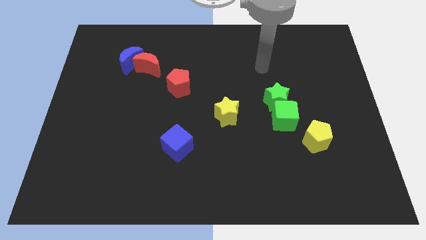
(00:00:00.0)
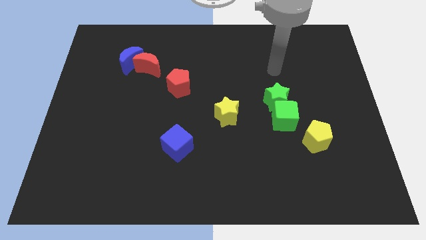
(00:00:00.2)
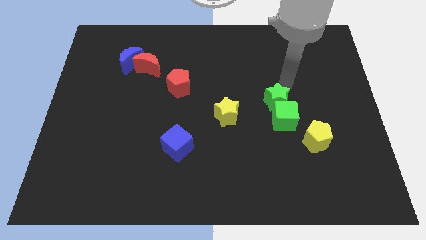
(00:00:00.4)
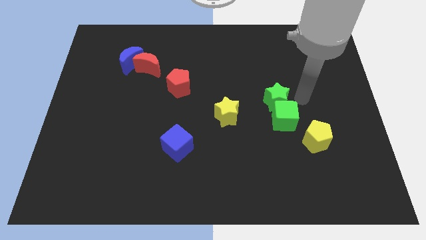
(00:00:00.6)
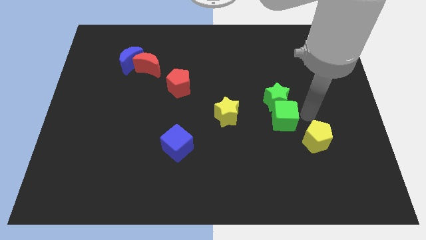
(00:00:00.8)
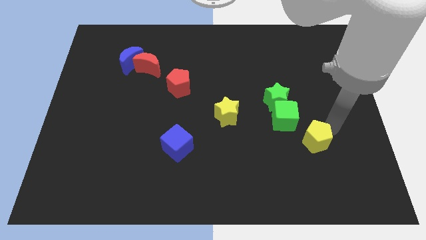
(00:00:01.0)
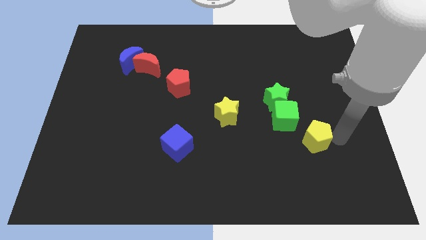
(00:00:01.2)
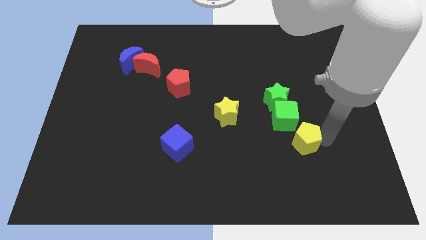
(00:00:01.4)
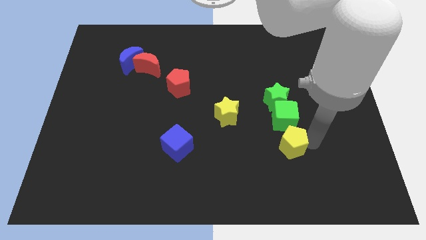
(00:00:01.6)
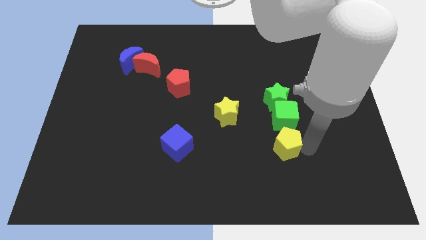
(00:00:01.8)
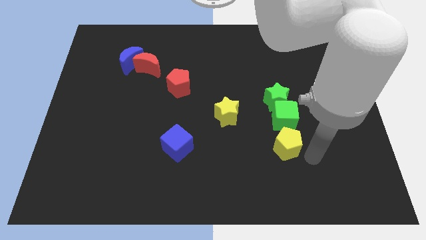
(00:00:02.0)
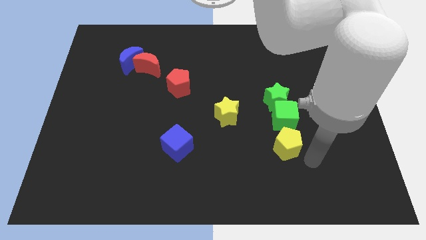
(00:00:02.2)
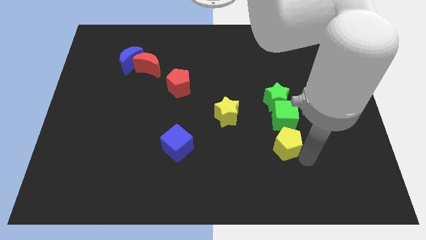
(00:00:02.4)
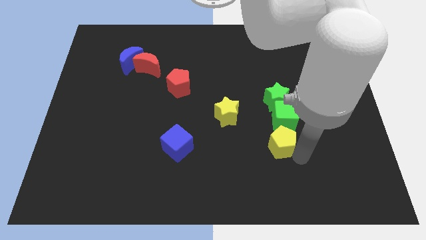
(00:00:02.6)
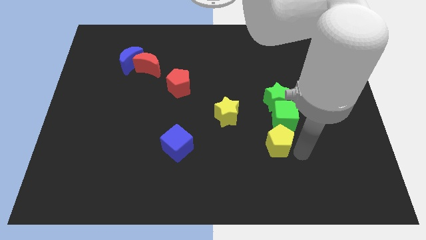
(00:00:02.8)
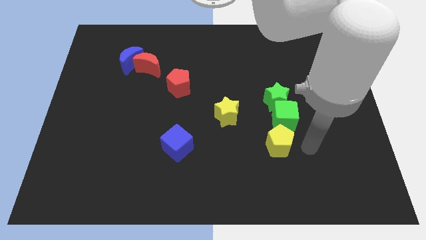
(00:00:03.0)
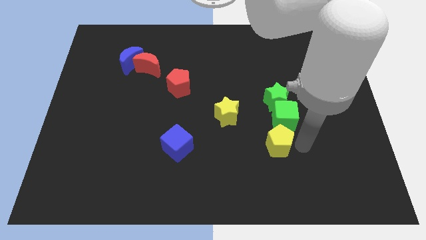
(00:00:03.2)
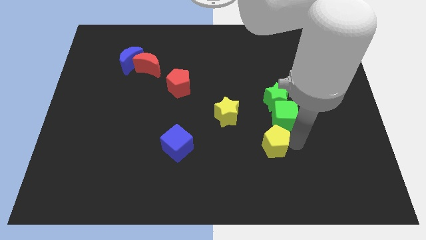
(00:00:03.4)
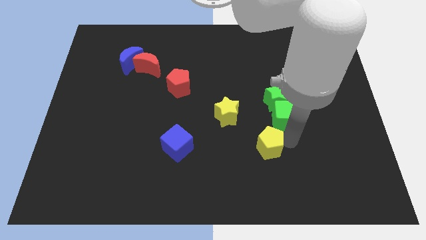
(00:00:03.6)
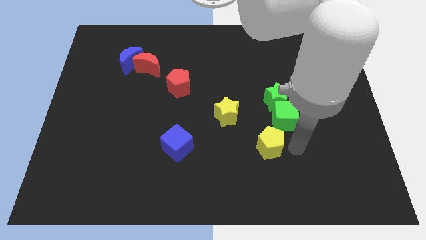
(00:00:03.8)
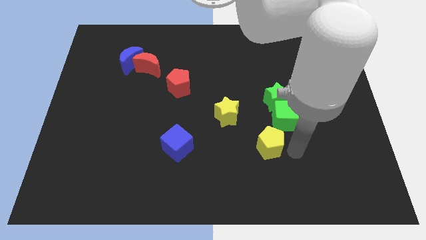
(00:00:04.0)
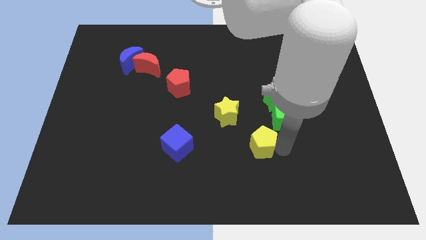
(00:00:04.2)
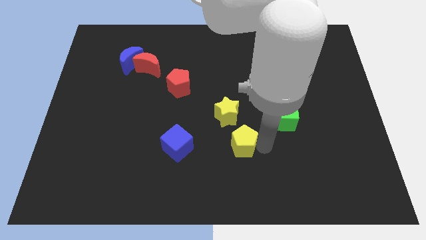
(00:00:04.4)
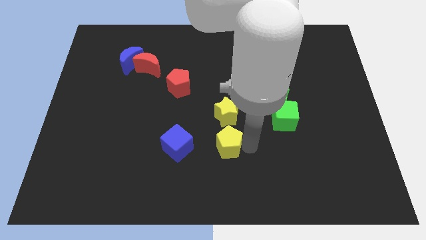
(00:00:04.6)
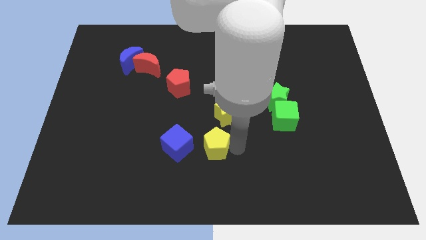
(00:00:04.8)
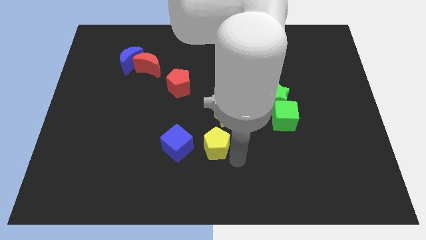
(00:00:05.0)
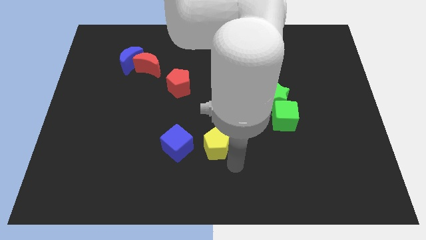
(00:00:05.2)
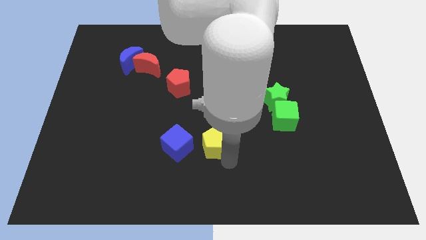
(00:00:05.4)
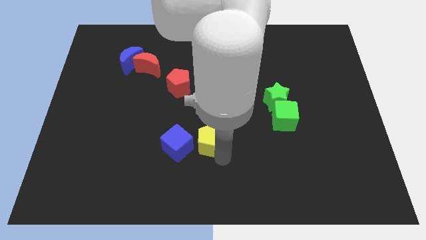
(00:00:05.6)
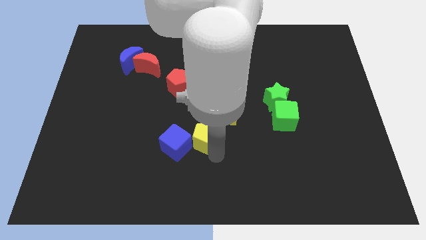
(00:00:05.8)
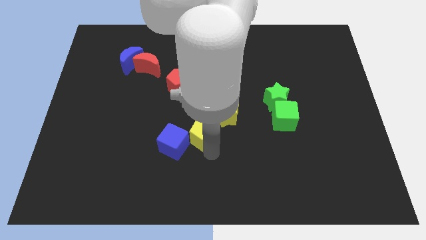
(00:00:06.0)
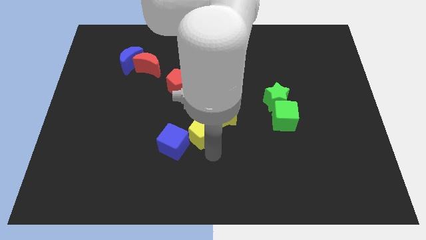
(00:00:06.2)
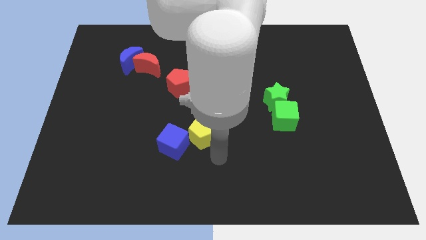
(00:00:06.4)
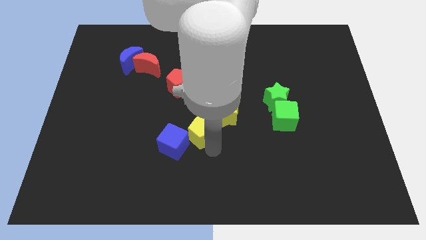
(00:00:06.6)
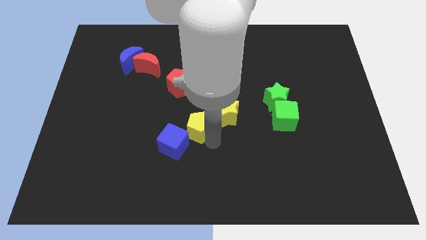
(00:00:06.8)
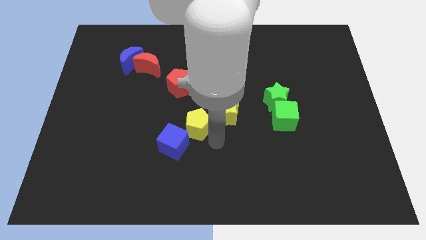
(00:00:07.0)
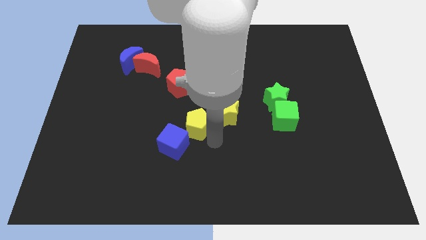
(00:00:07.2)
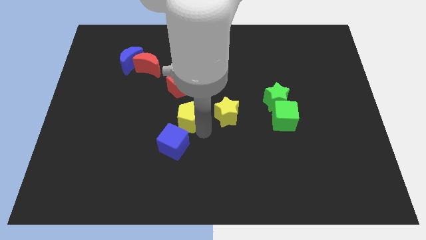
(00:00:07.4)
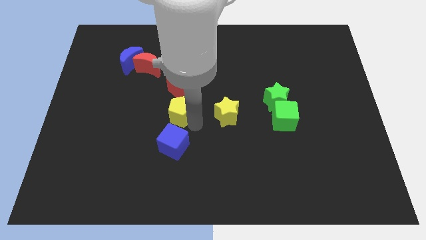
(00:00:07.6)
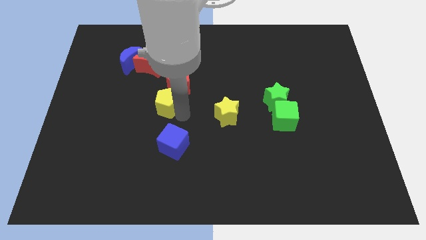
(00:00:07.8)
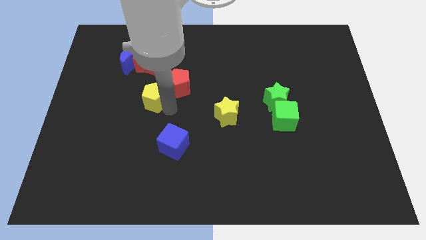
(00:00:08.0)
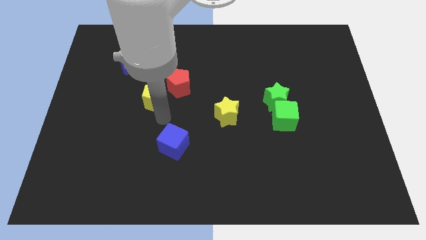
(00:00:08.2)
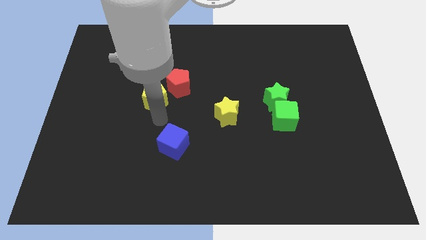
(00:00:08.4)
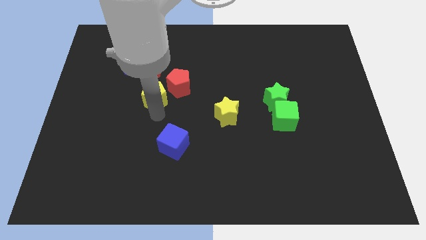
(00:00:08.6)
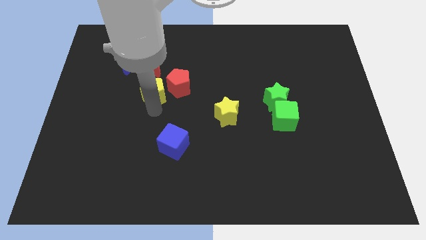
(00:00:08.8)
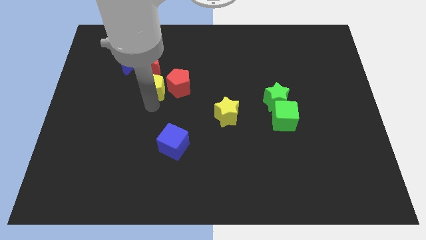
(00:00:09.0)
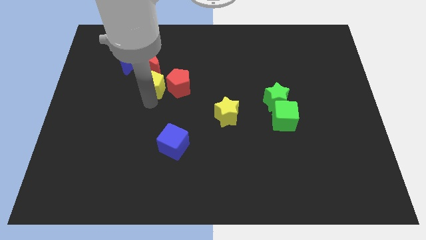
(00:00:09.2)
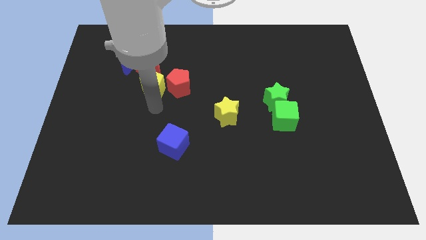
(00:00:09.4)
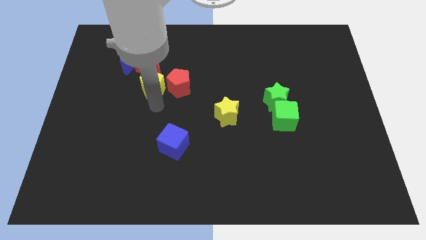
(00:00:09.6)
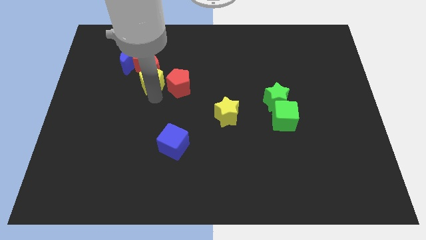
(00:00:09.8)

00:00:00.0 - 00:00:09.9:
push the yellow pentagon to the red moon

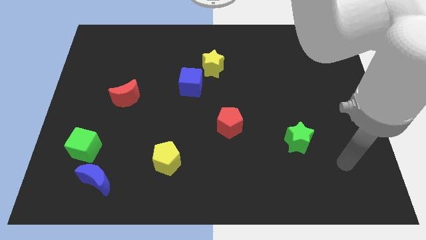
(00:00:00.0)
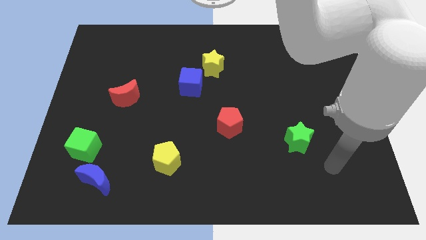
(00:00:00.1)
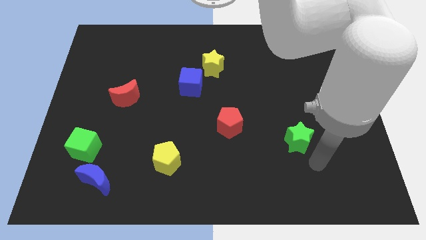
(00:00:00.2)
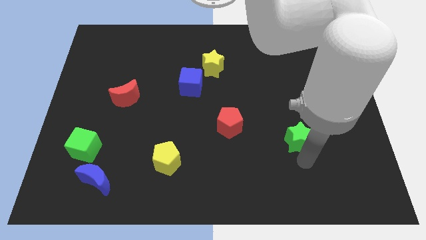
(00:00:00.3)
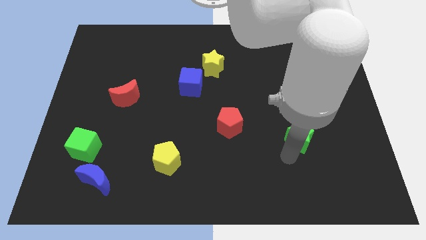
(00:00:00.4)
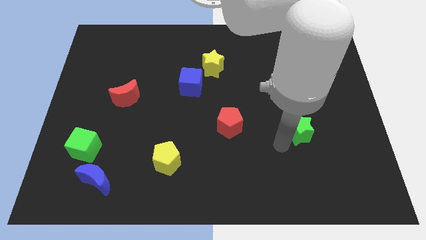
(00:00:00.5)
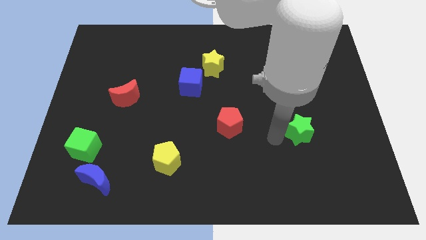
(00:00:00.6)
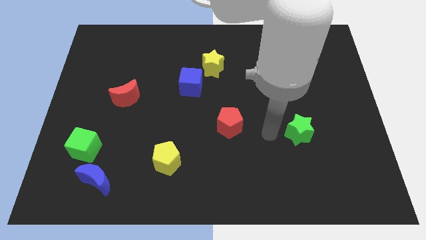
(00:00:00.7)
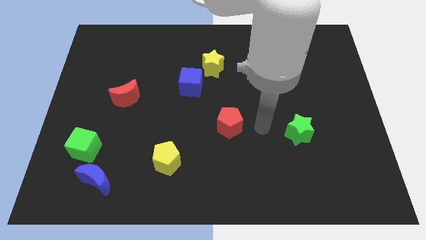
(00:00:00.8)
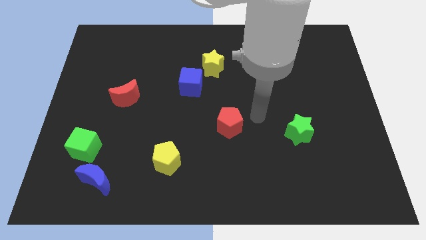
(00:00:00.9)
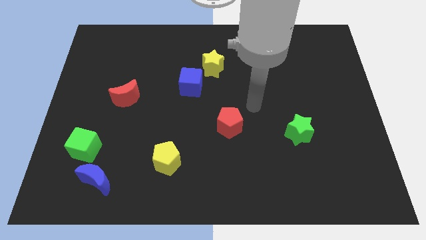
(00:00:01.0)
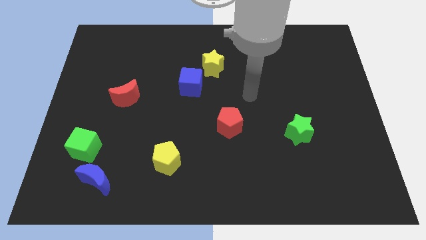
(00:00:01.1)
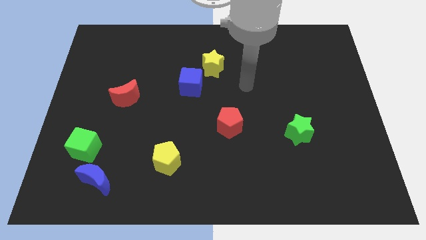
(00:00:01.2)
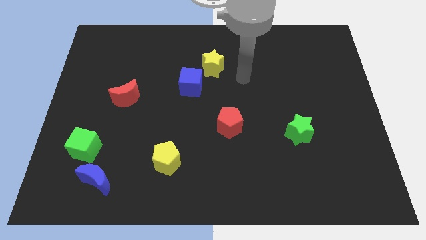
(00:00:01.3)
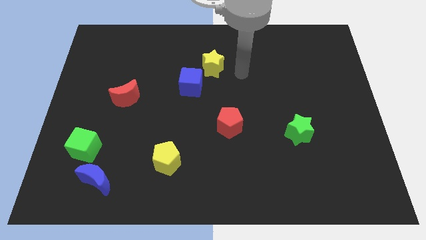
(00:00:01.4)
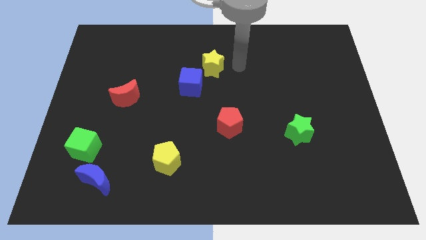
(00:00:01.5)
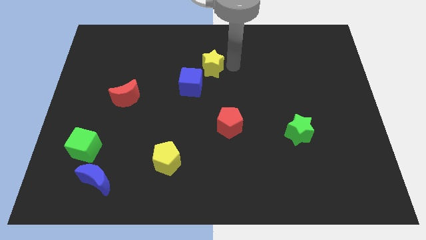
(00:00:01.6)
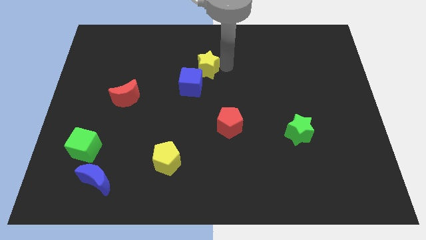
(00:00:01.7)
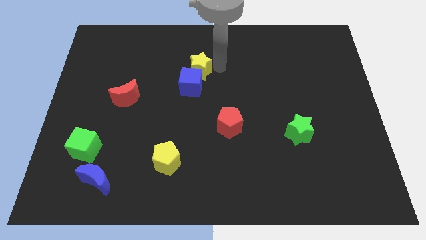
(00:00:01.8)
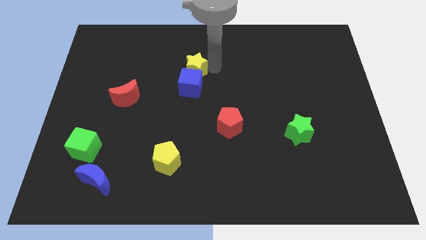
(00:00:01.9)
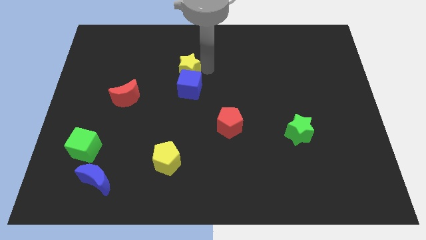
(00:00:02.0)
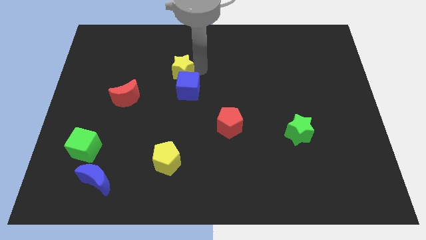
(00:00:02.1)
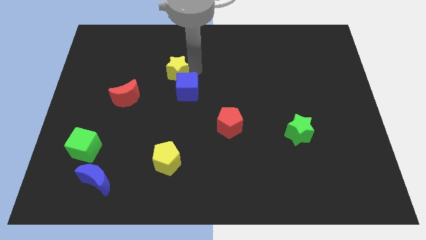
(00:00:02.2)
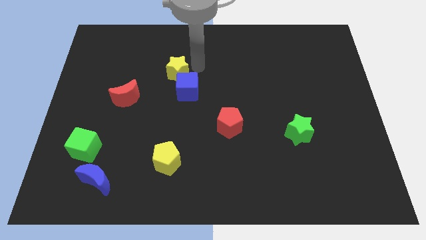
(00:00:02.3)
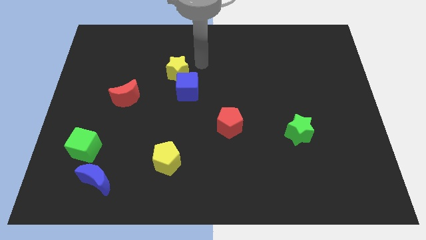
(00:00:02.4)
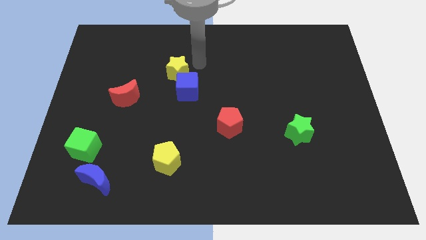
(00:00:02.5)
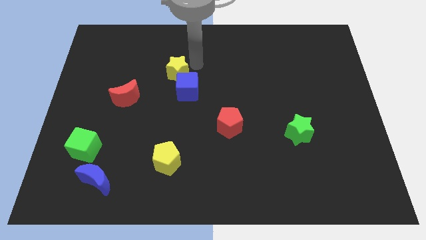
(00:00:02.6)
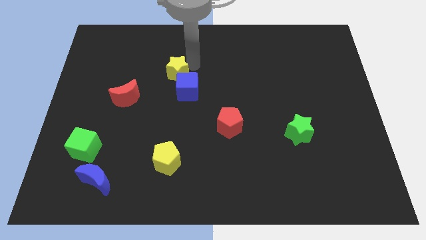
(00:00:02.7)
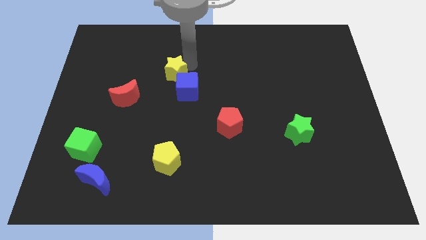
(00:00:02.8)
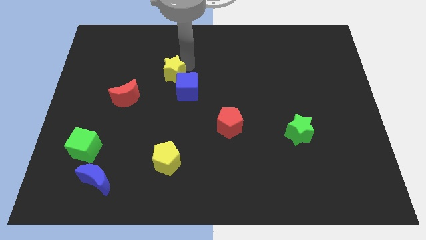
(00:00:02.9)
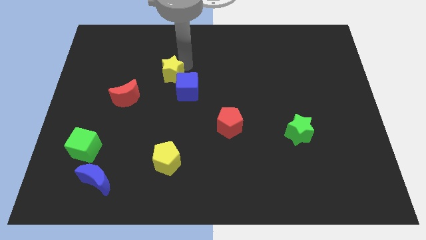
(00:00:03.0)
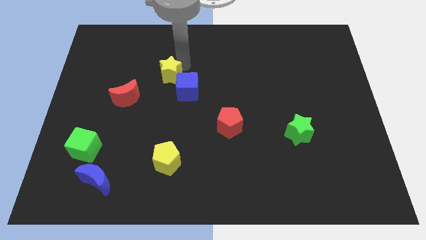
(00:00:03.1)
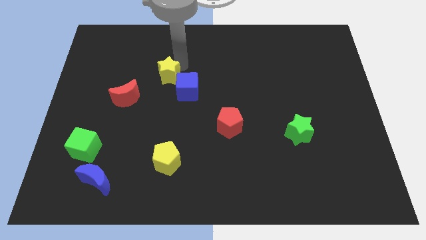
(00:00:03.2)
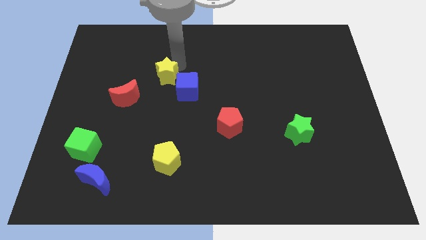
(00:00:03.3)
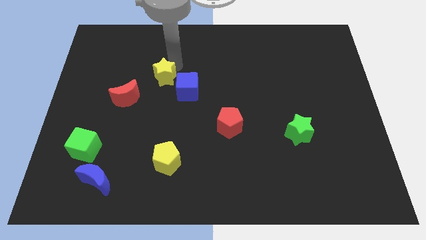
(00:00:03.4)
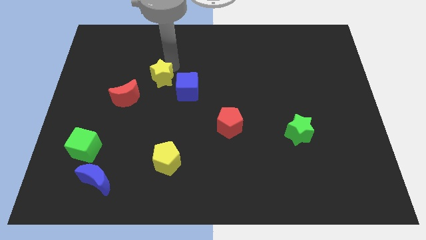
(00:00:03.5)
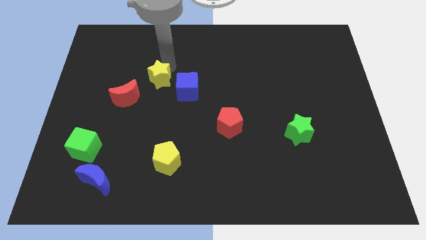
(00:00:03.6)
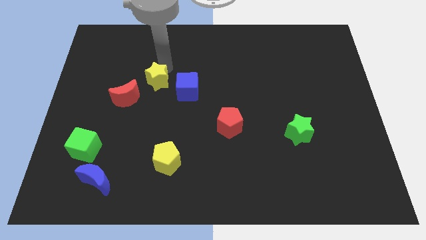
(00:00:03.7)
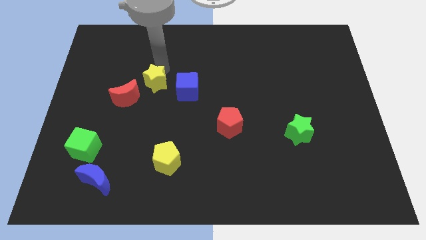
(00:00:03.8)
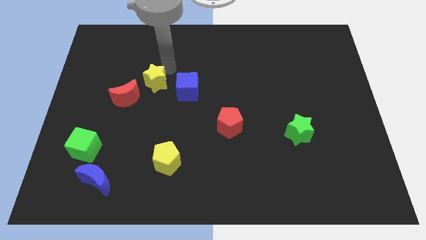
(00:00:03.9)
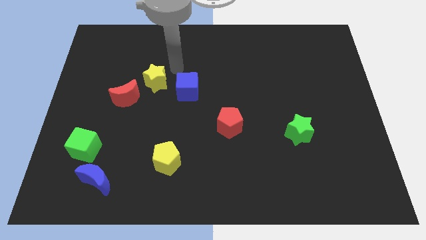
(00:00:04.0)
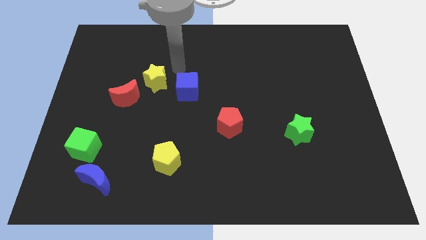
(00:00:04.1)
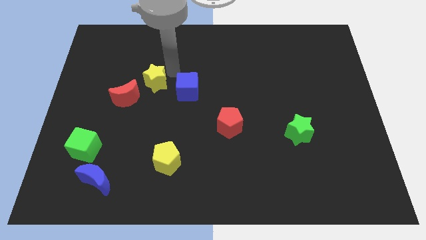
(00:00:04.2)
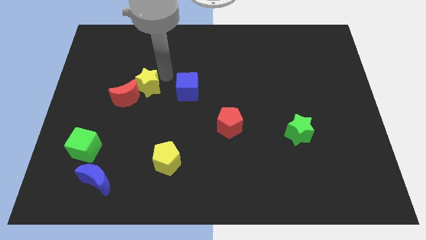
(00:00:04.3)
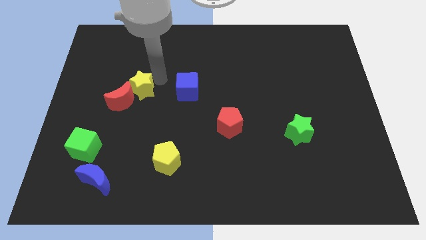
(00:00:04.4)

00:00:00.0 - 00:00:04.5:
move the yellow star to the red moon
